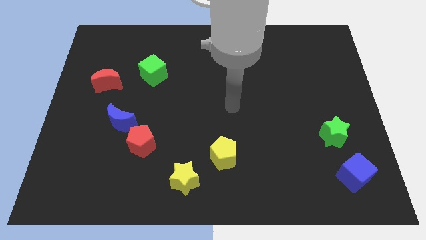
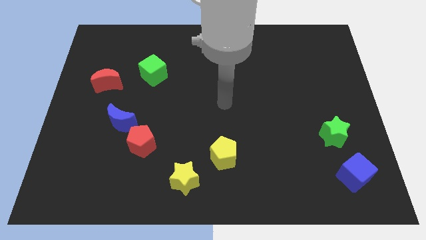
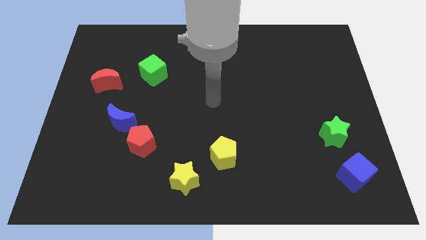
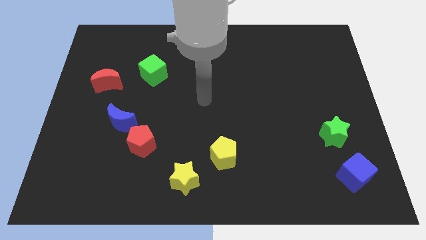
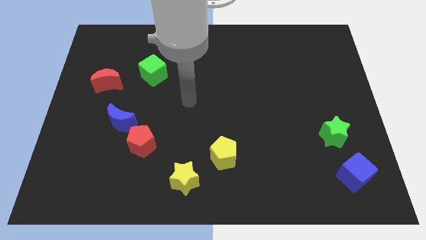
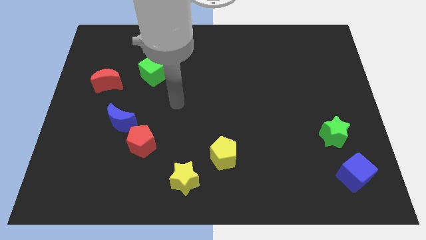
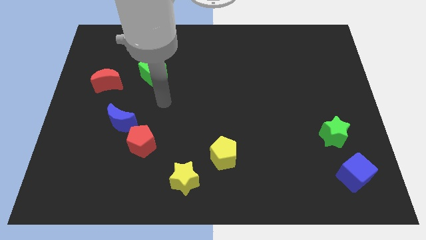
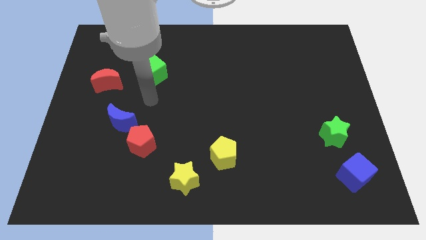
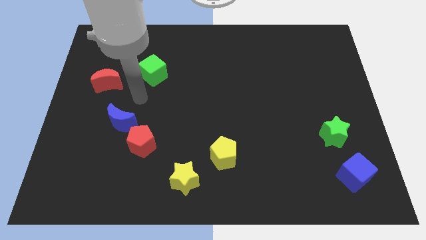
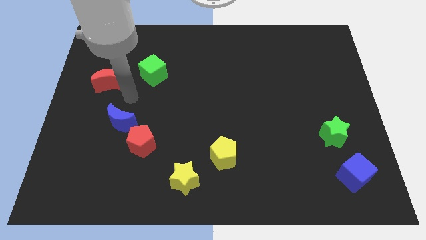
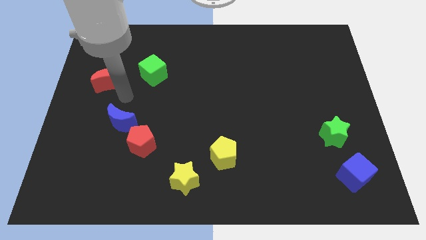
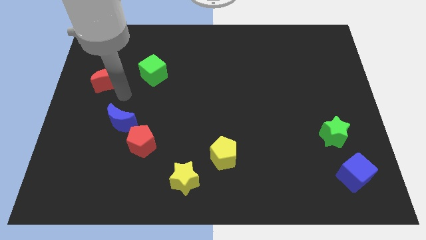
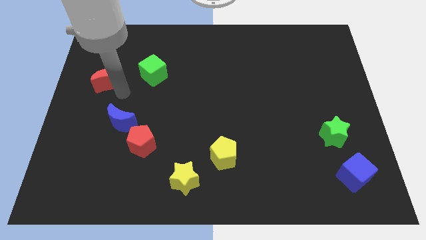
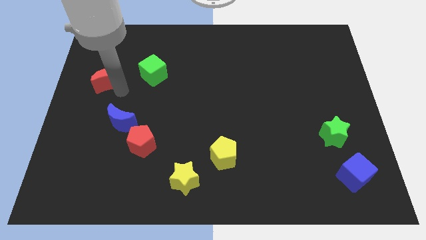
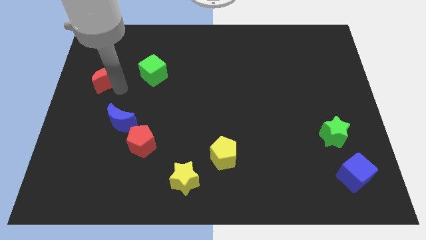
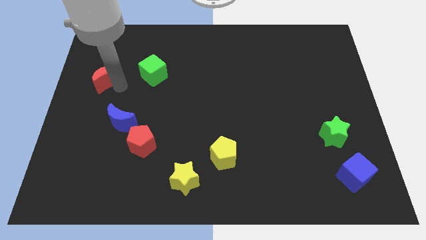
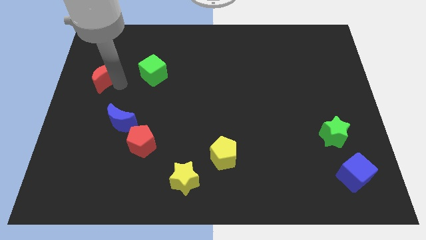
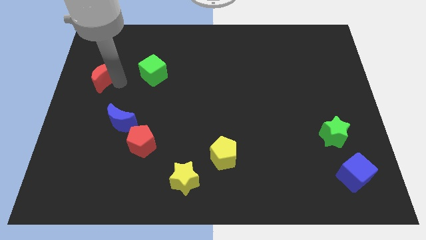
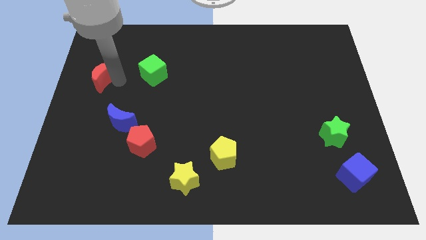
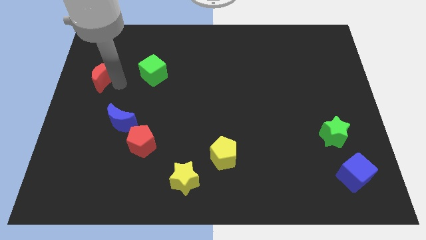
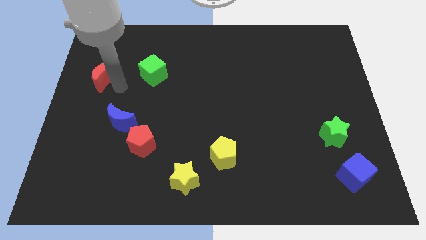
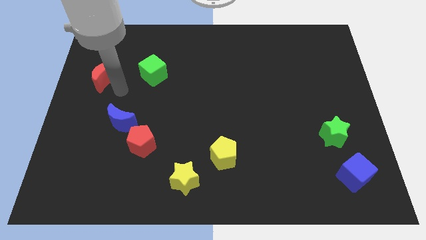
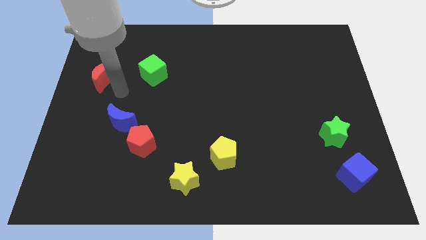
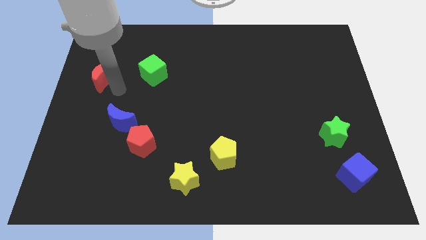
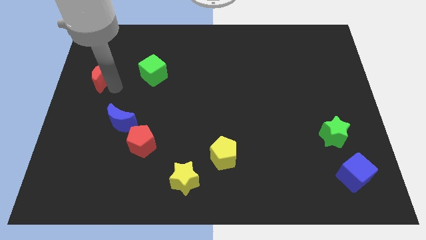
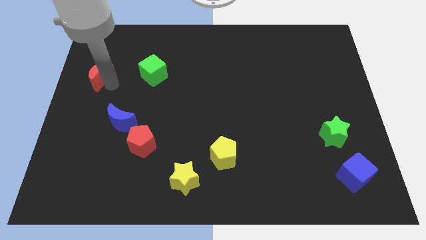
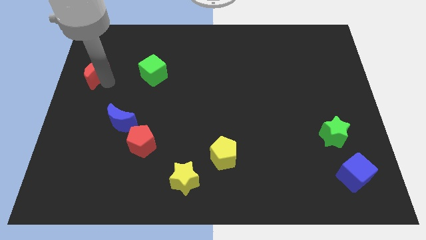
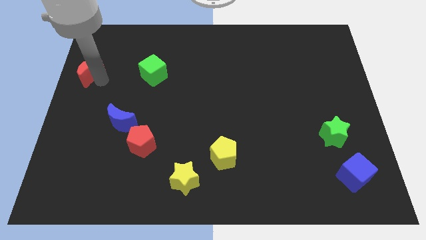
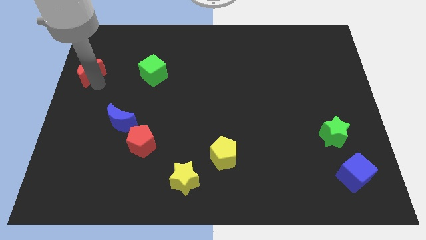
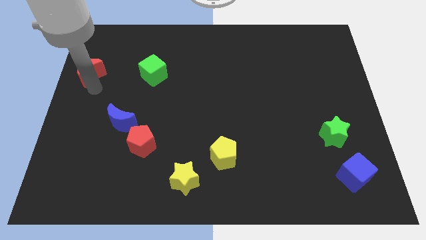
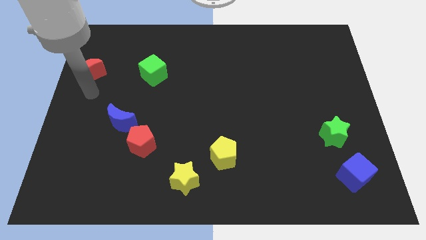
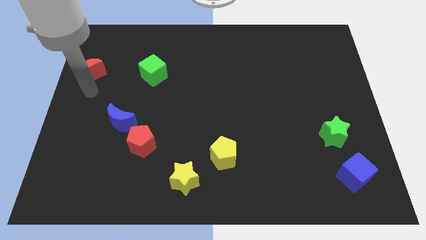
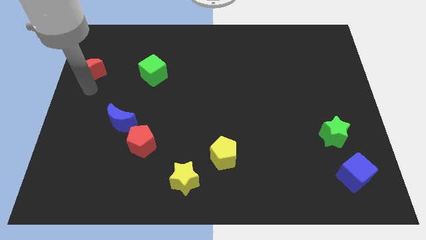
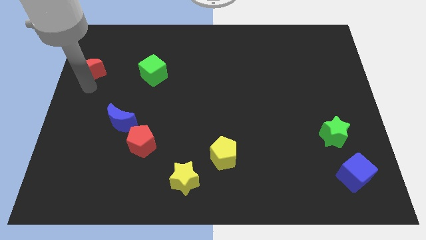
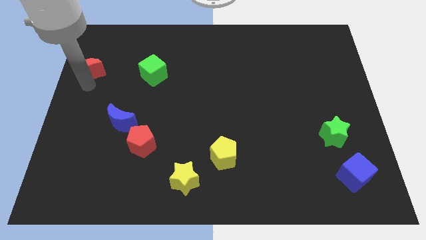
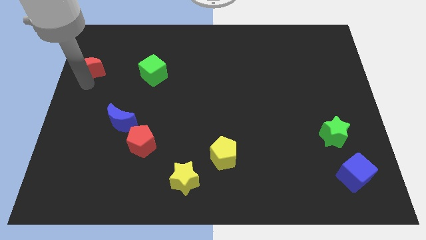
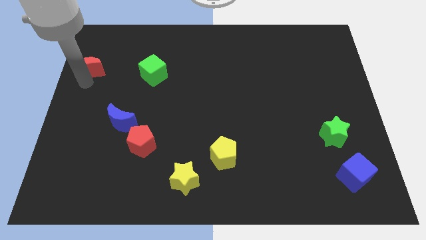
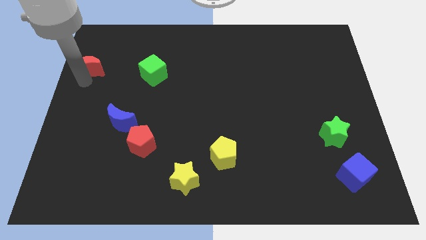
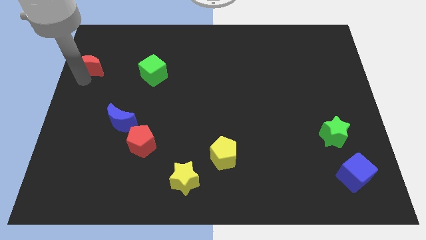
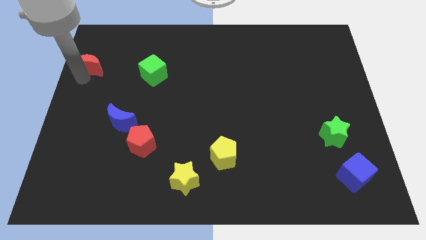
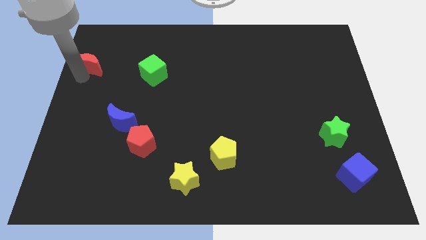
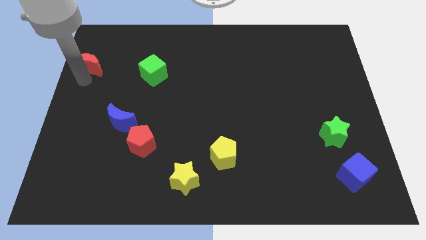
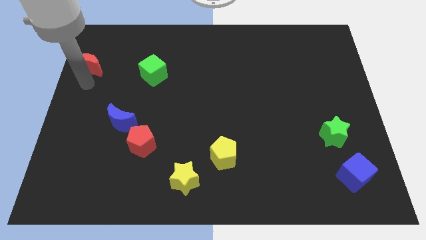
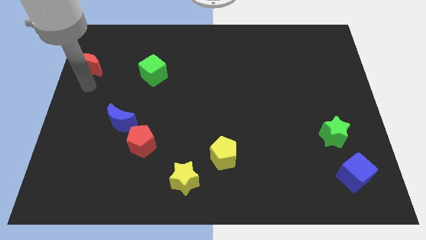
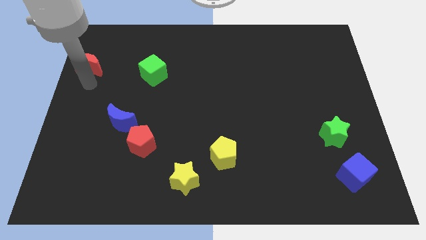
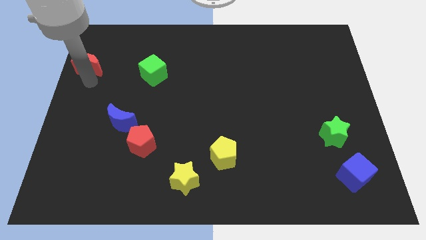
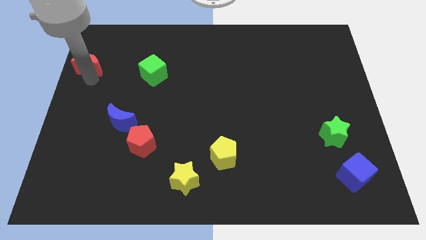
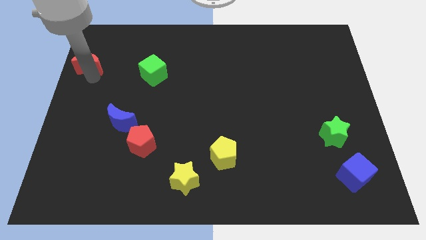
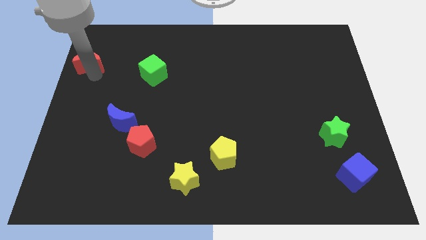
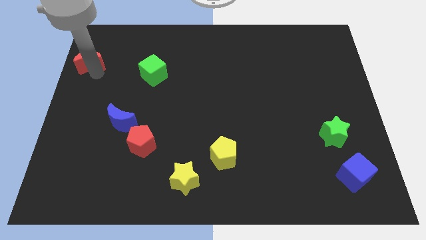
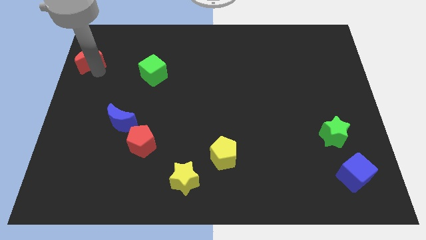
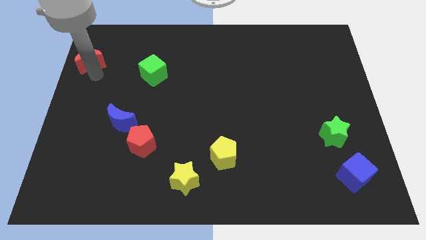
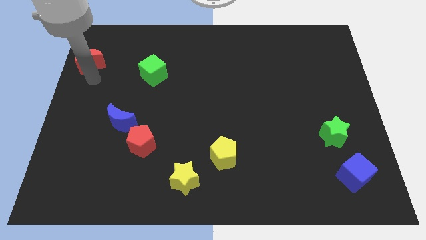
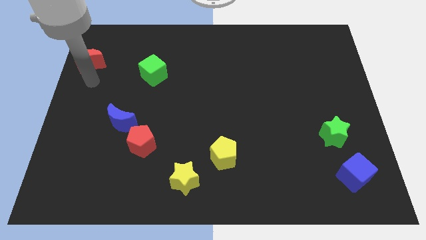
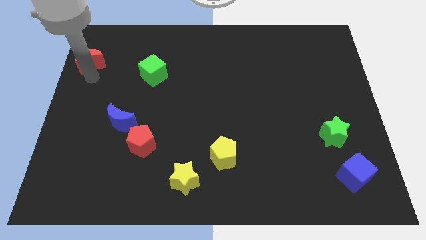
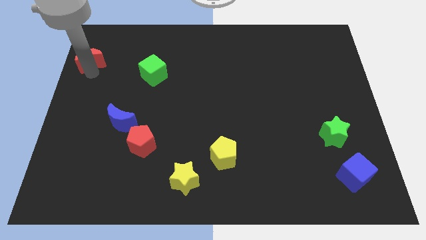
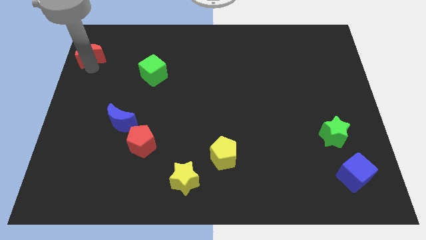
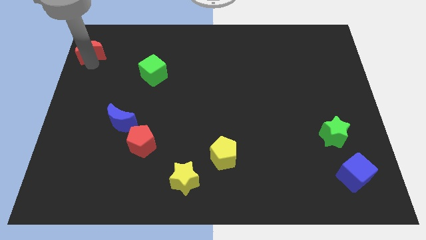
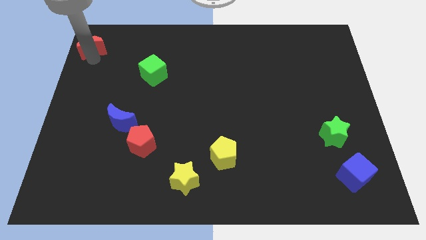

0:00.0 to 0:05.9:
put the red moon to the top left of the board
